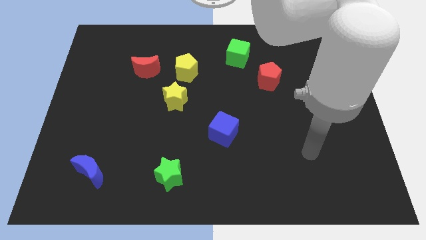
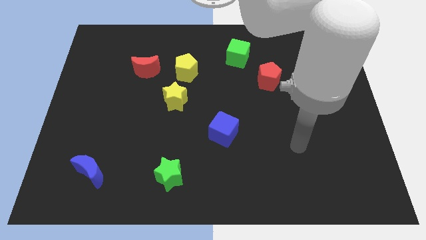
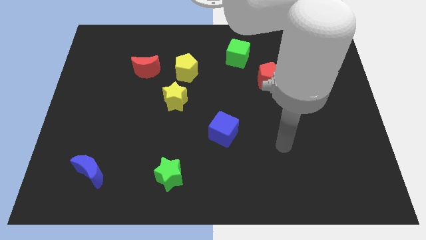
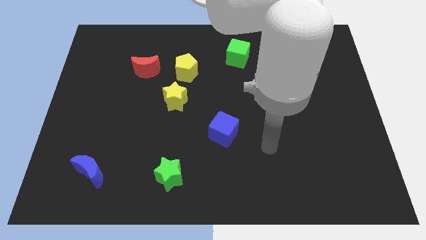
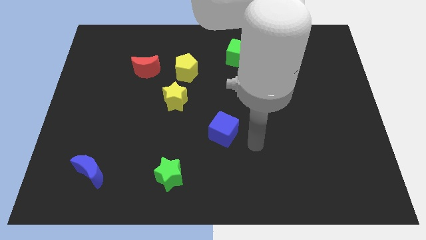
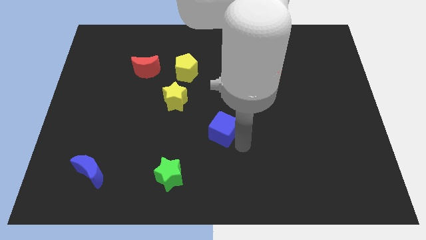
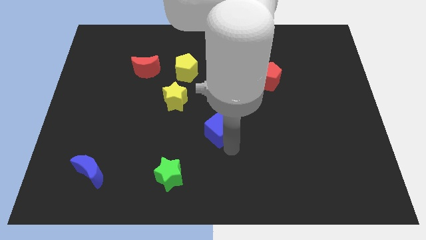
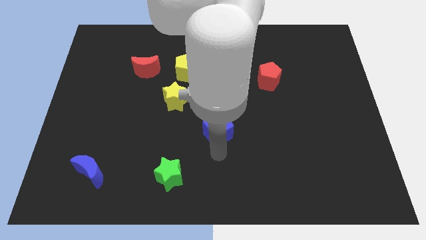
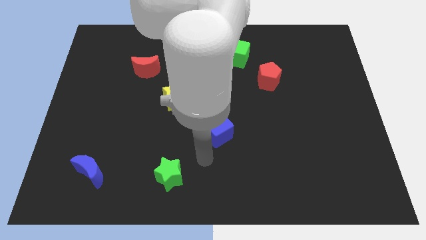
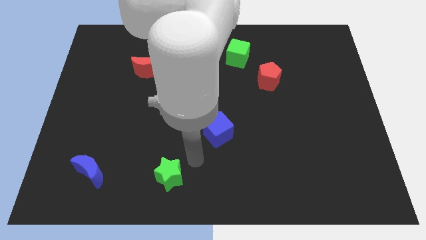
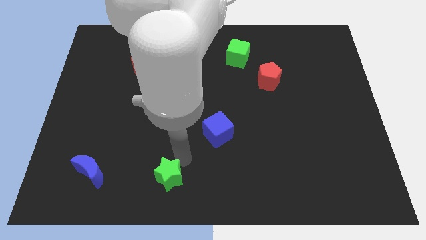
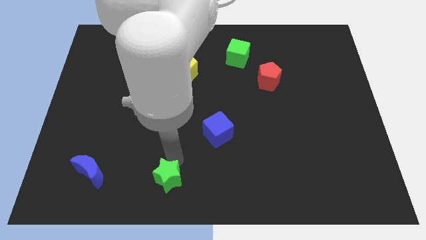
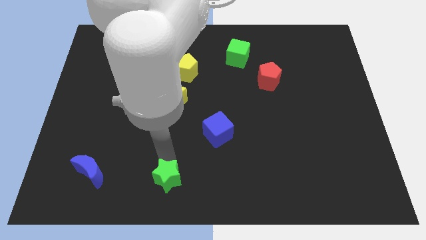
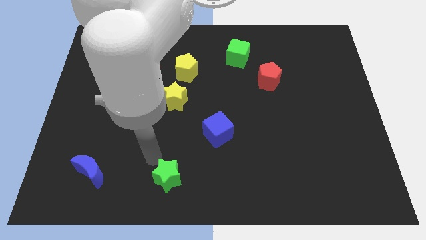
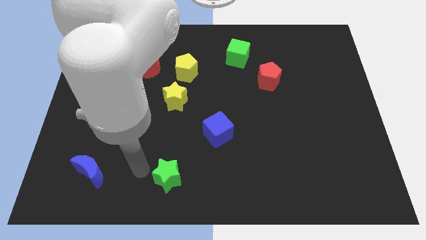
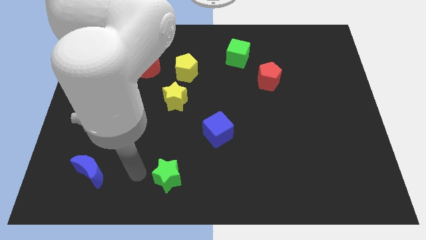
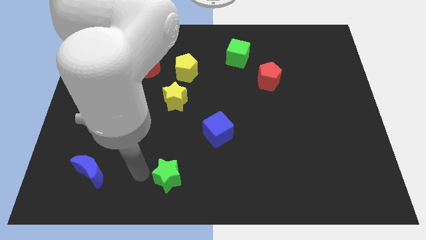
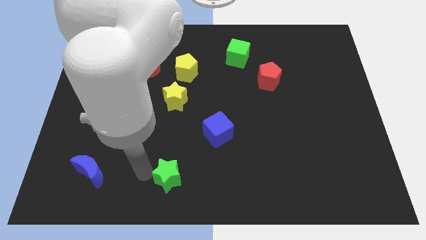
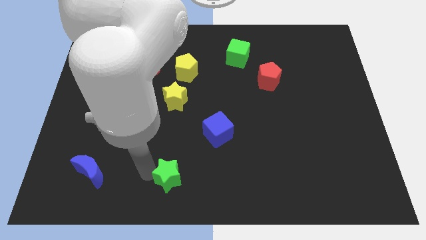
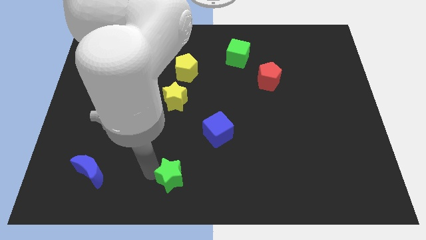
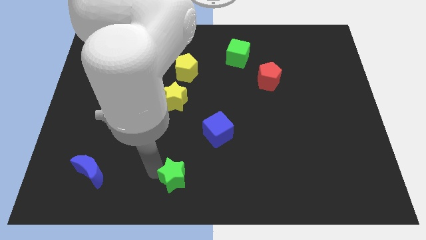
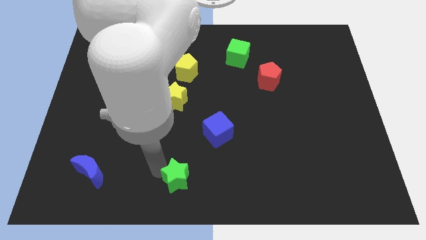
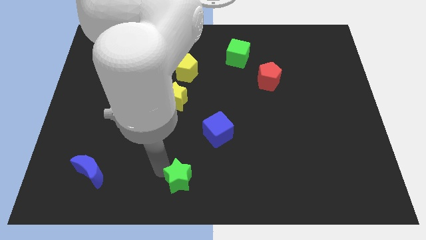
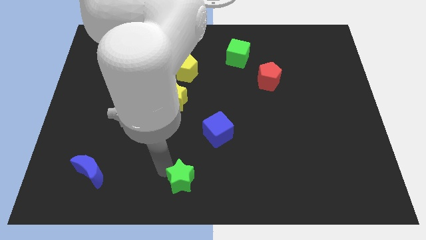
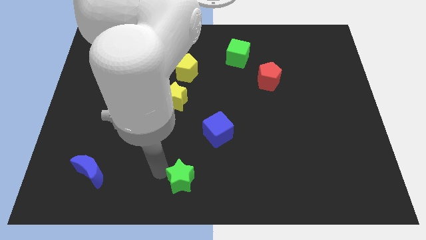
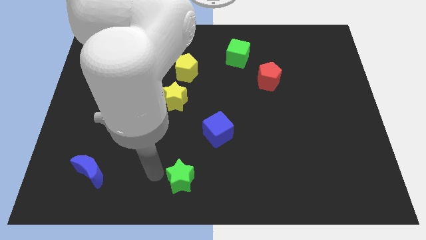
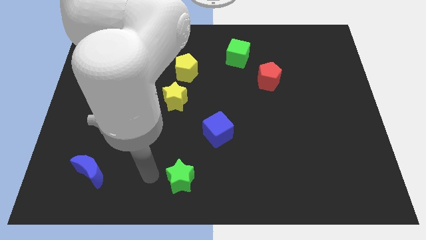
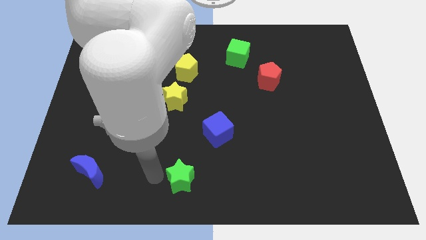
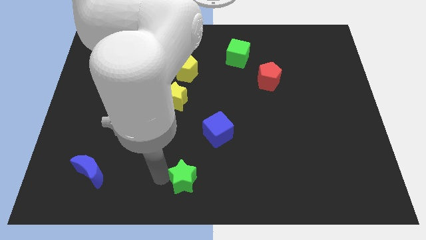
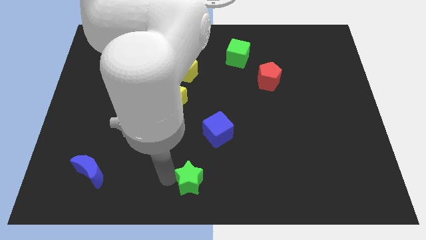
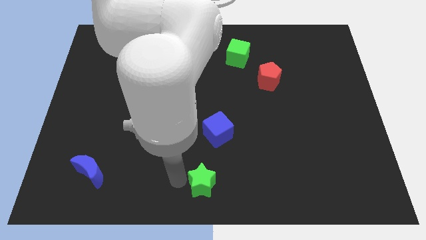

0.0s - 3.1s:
move the green star to the right somewhat

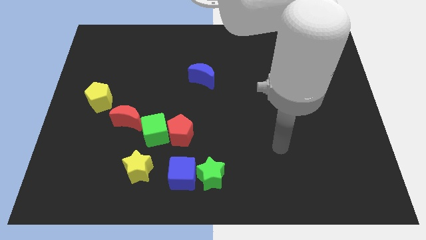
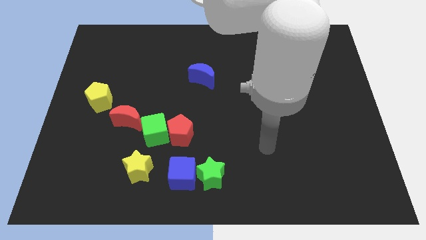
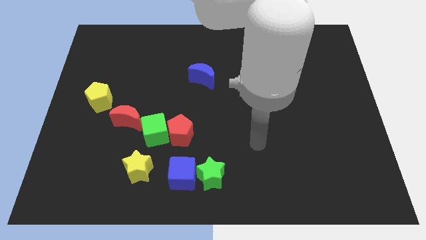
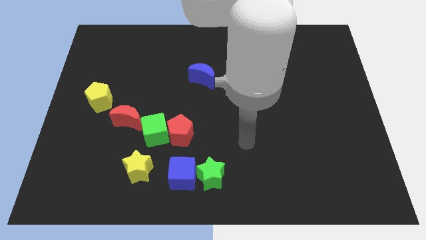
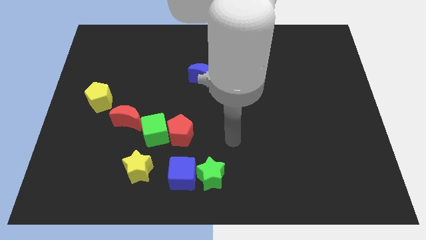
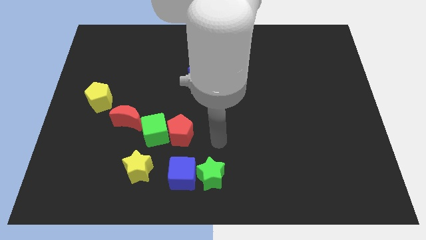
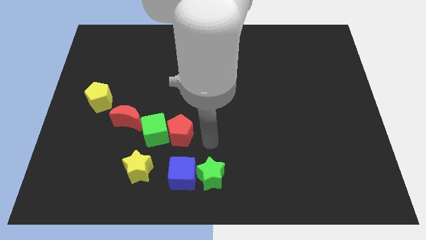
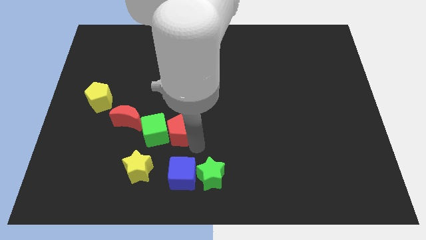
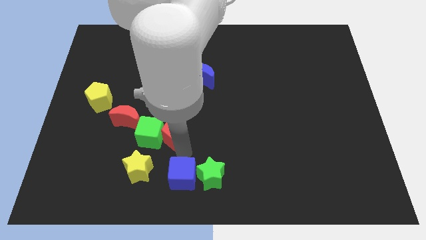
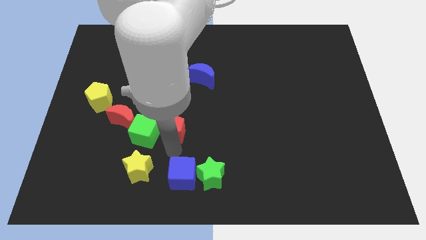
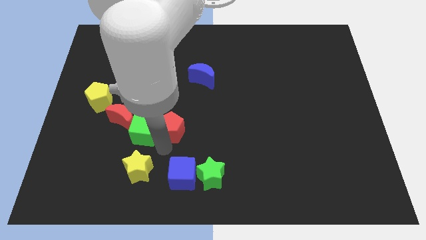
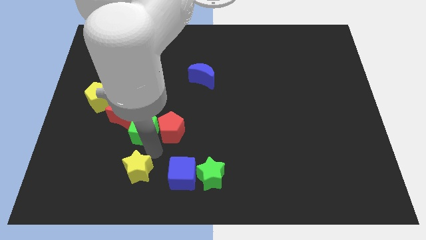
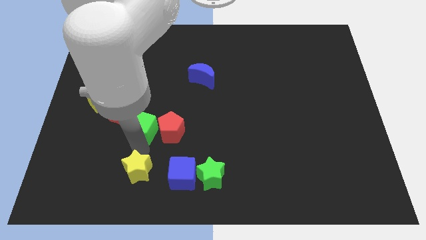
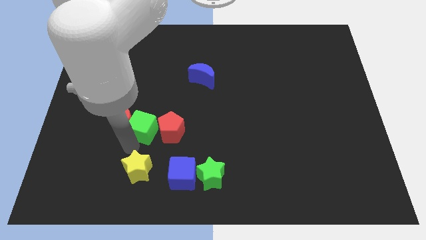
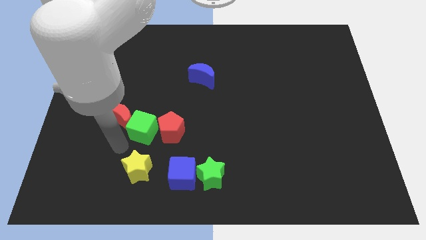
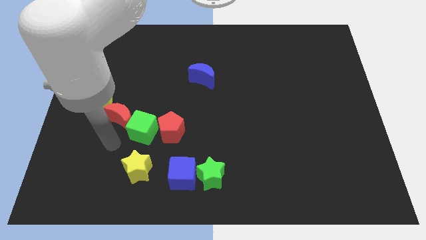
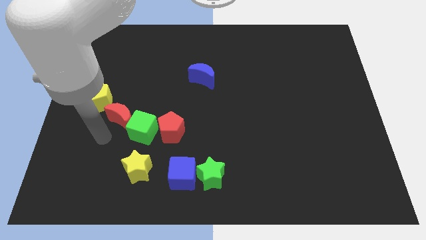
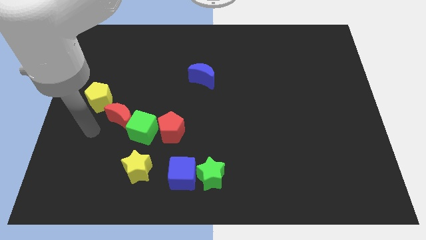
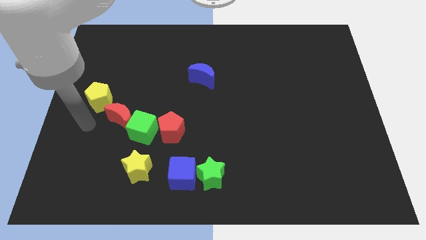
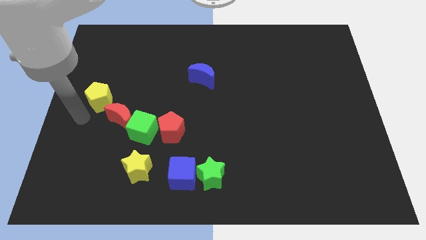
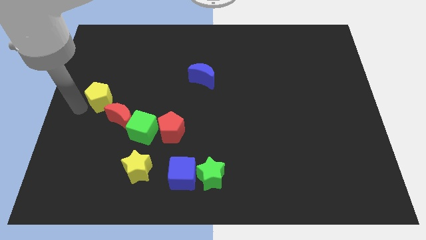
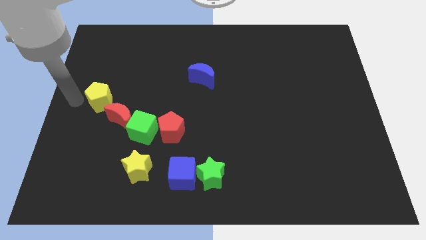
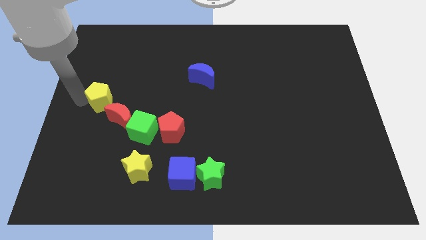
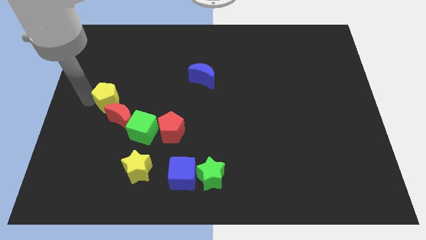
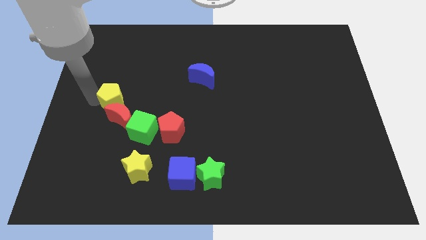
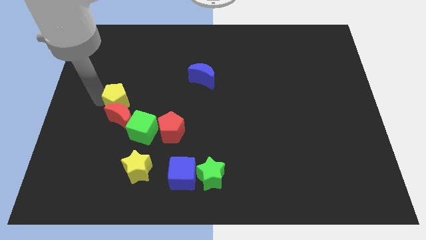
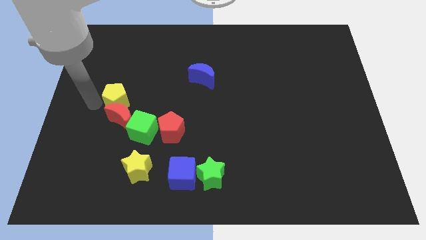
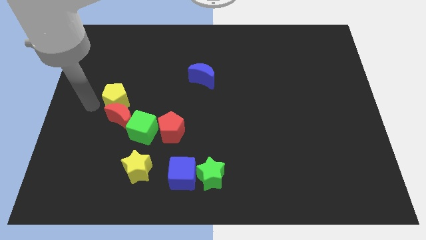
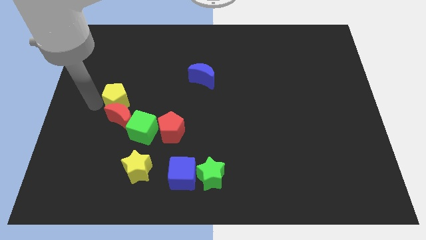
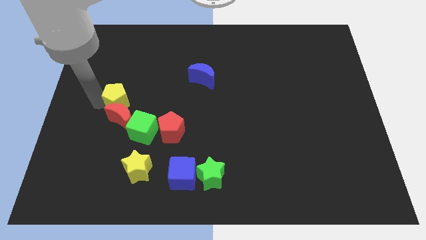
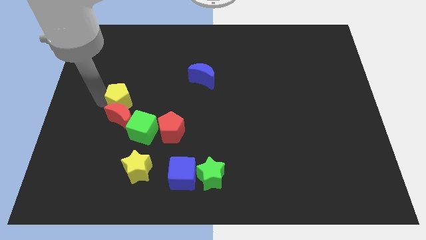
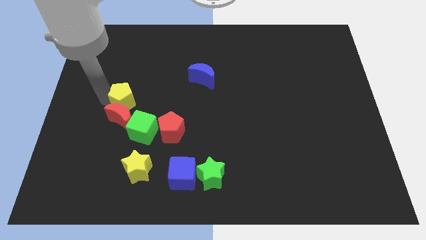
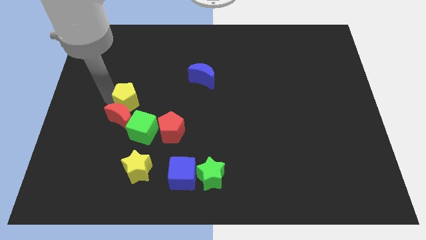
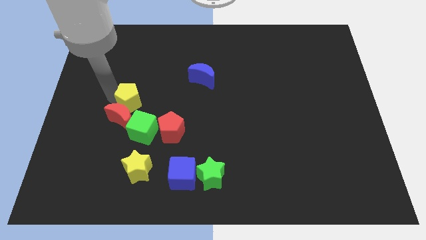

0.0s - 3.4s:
slightly move the yellow pentagon to the right

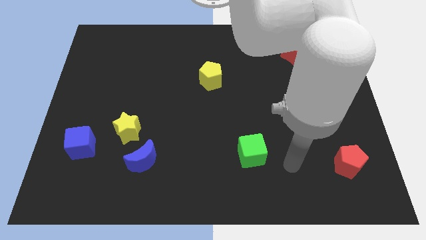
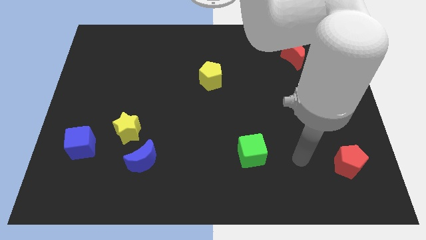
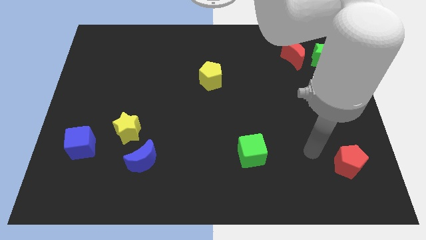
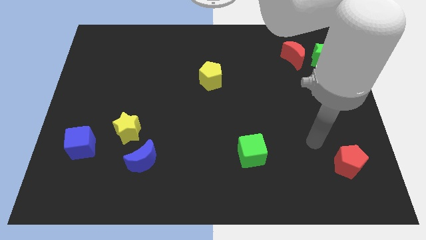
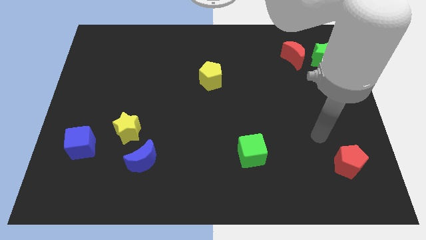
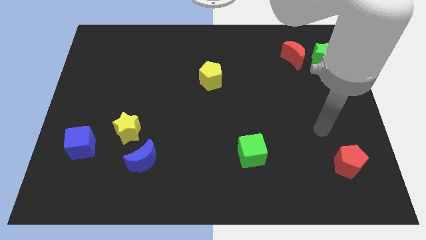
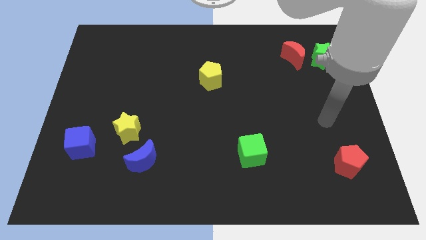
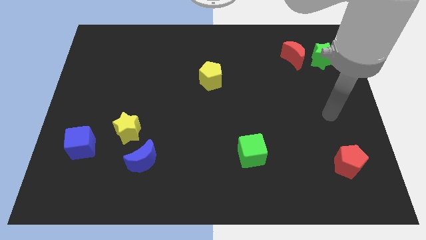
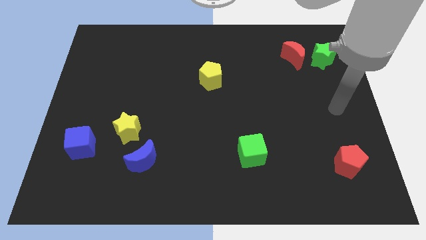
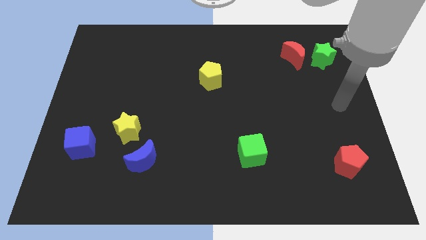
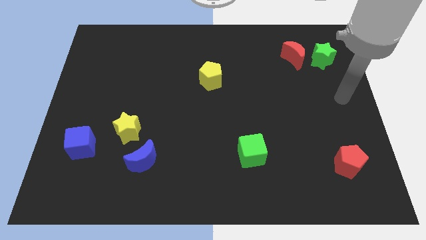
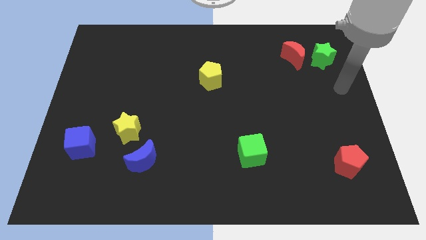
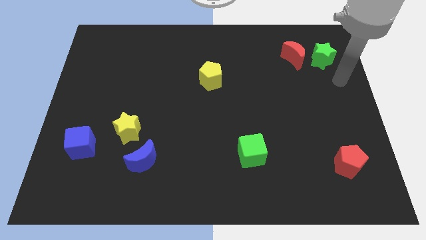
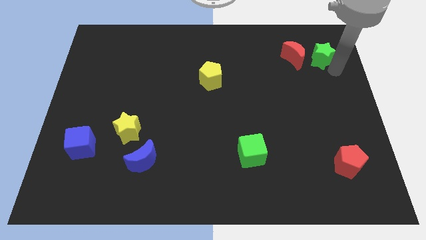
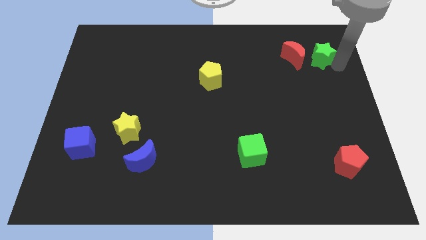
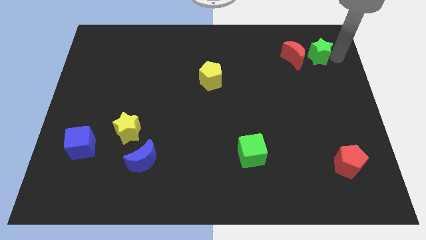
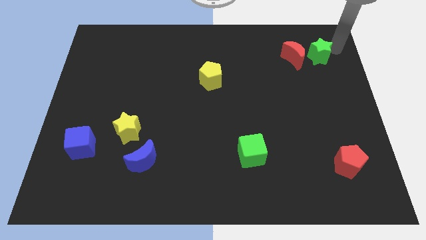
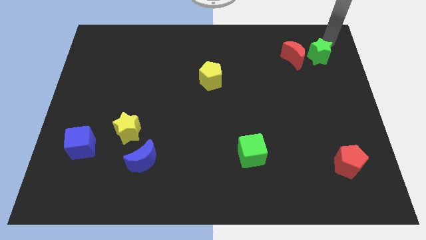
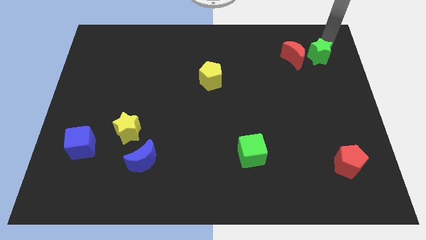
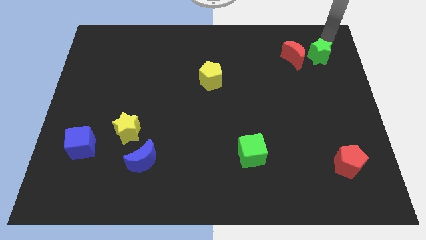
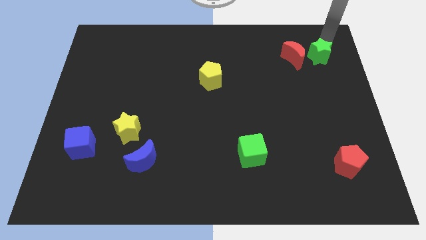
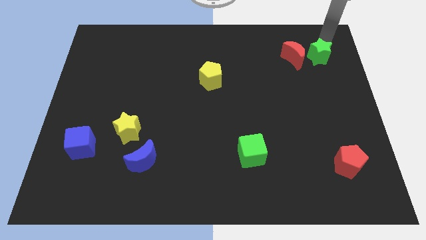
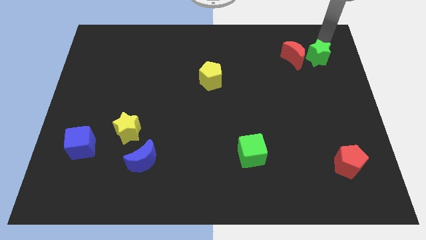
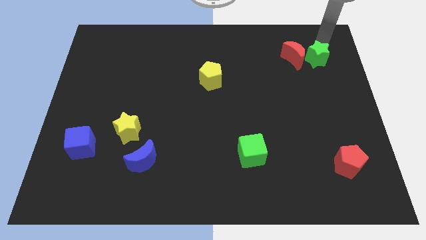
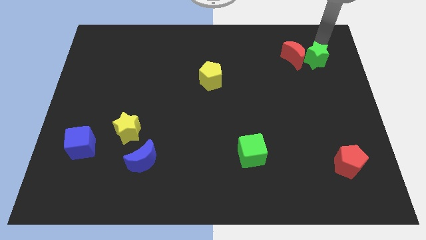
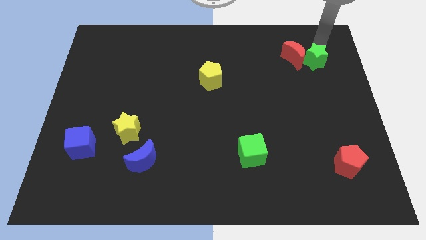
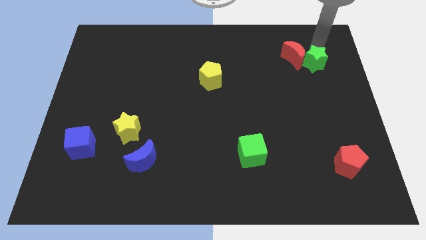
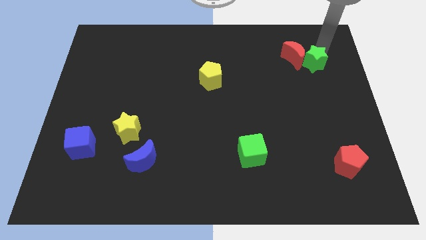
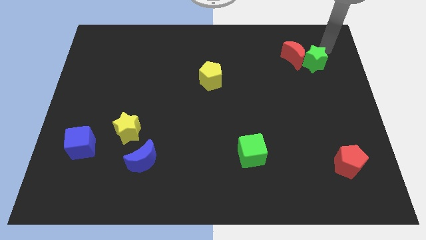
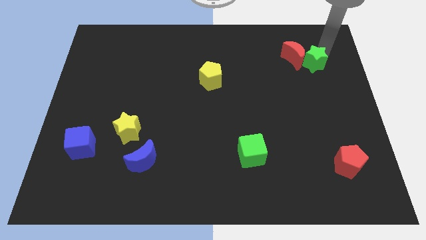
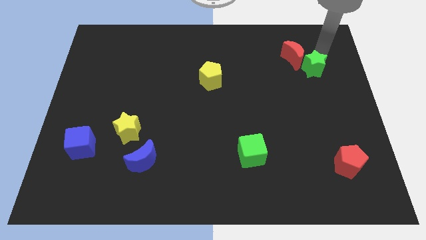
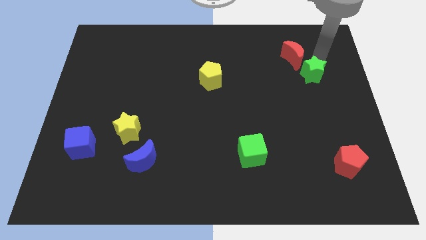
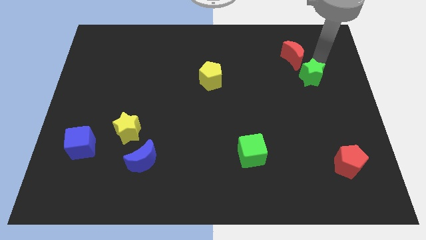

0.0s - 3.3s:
slightly move the green star downwards and then left
